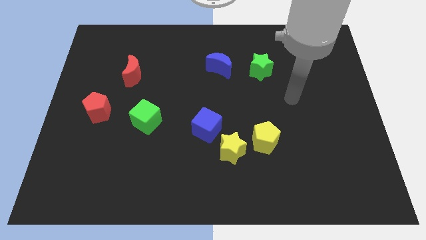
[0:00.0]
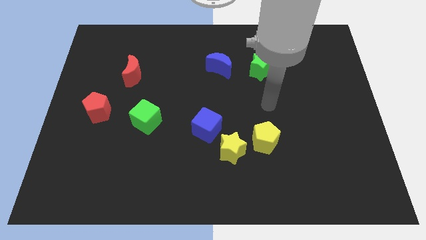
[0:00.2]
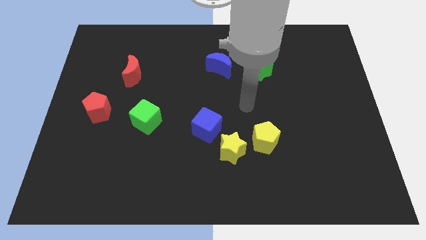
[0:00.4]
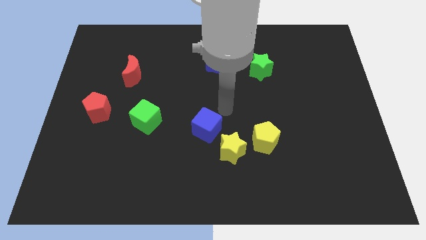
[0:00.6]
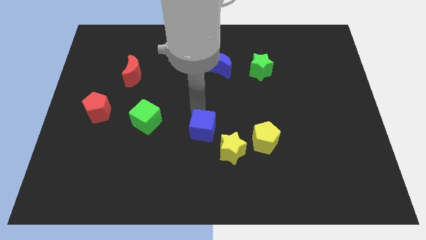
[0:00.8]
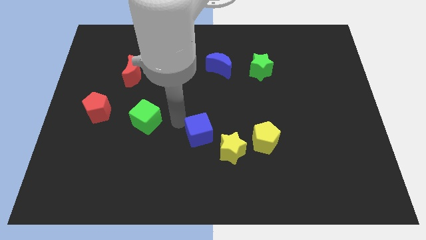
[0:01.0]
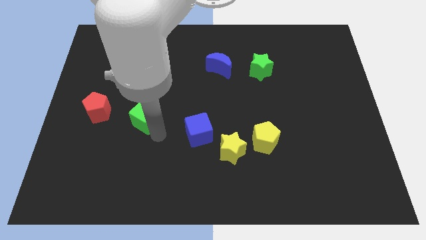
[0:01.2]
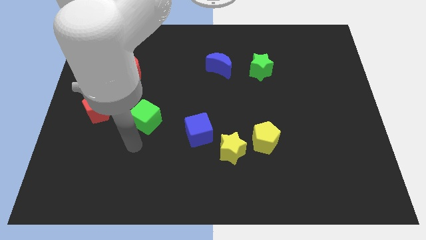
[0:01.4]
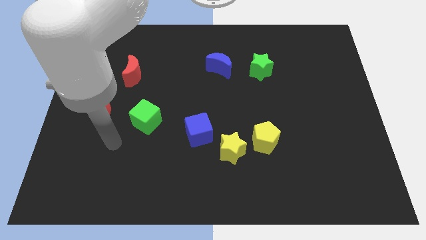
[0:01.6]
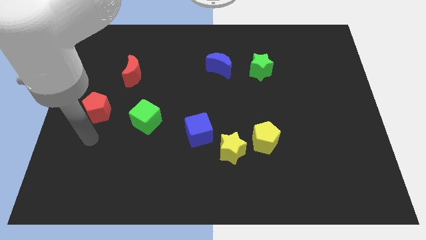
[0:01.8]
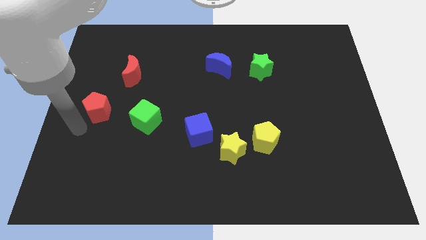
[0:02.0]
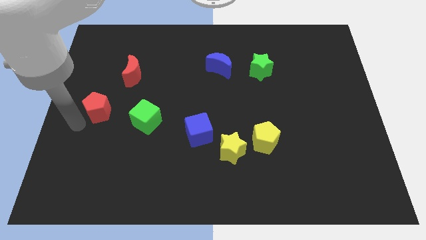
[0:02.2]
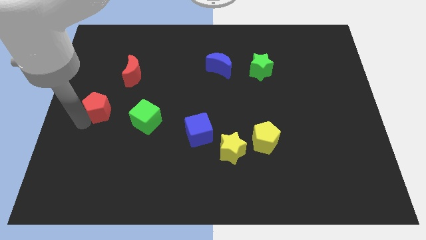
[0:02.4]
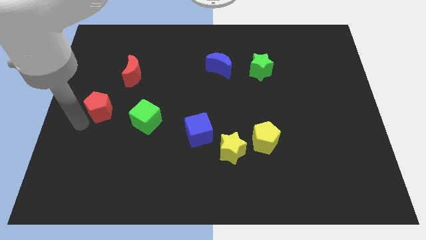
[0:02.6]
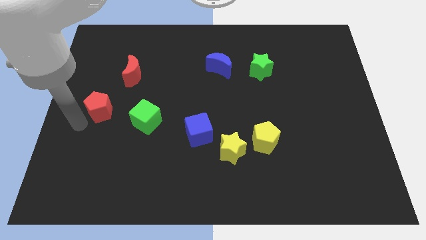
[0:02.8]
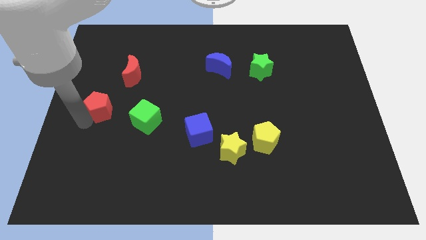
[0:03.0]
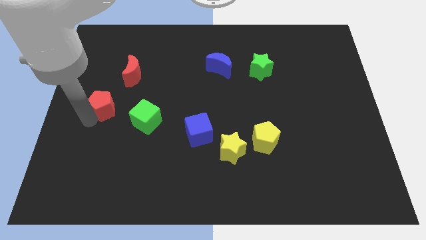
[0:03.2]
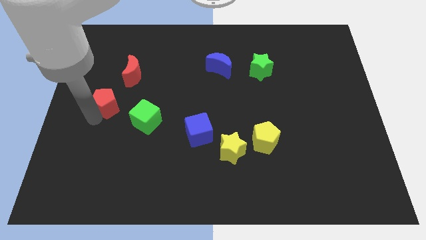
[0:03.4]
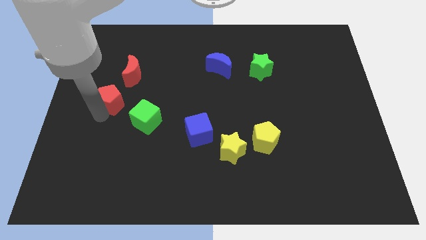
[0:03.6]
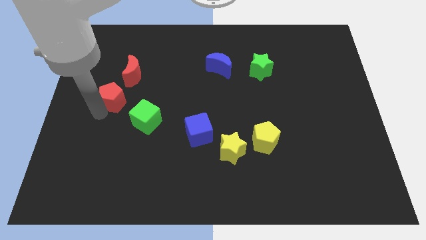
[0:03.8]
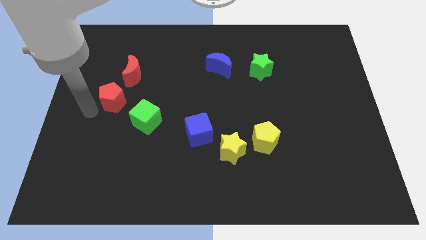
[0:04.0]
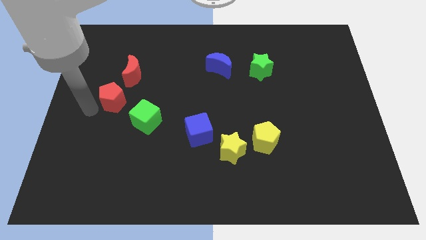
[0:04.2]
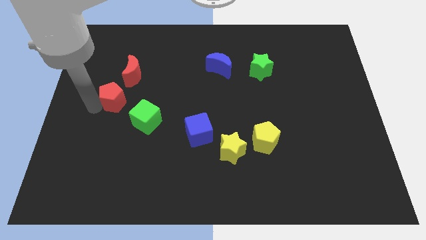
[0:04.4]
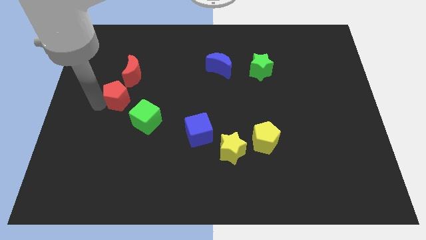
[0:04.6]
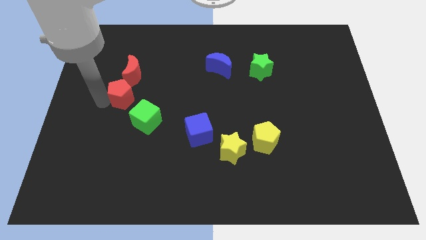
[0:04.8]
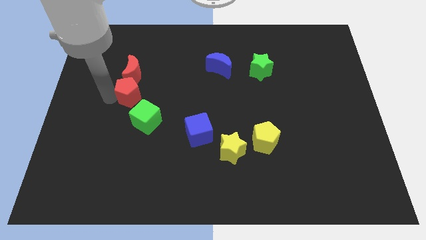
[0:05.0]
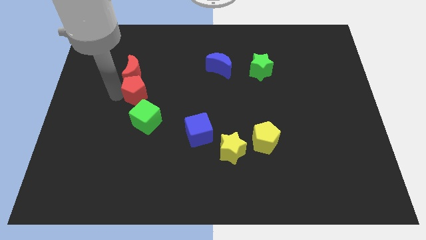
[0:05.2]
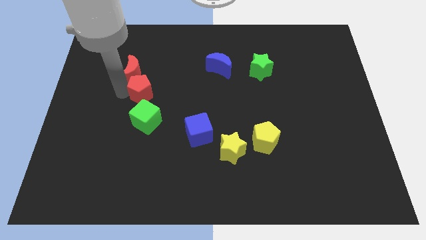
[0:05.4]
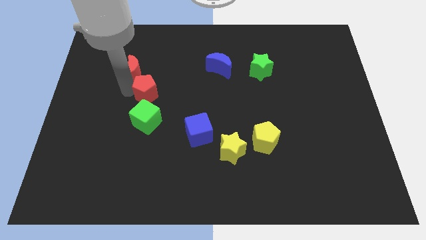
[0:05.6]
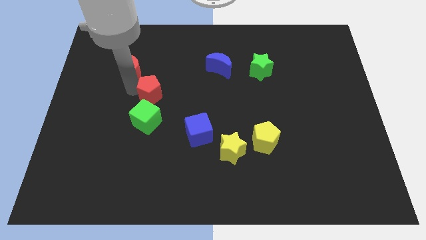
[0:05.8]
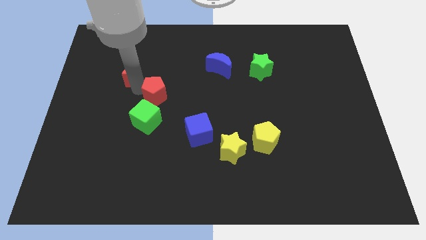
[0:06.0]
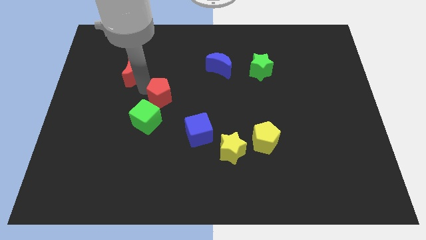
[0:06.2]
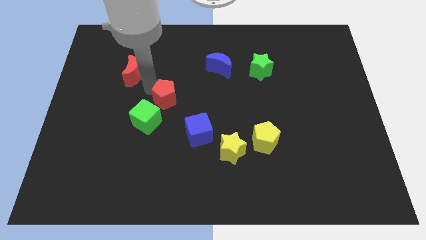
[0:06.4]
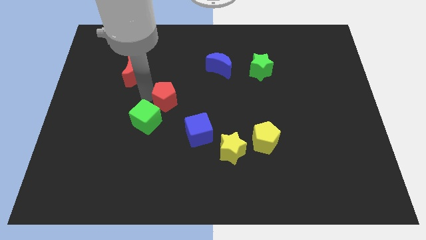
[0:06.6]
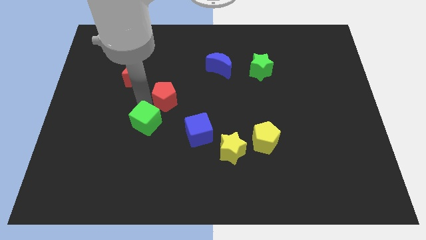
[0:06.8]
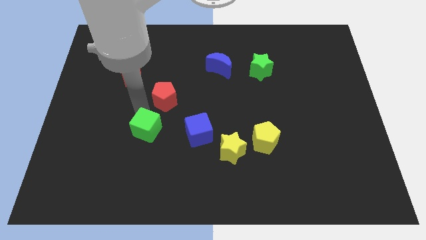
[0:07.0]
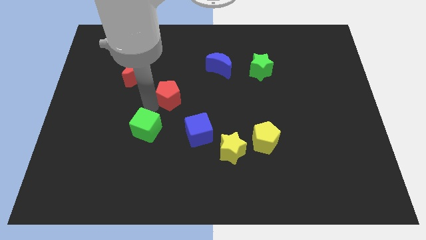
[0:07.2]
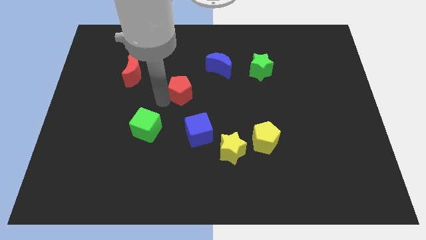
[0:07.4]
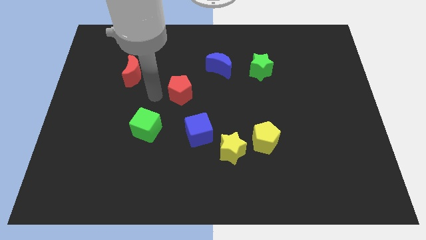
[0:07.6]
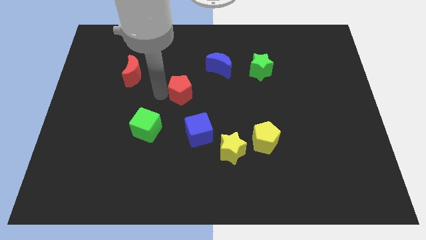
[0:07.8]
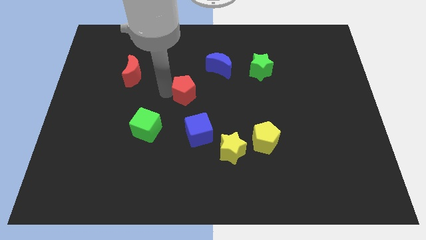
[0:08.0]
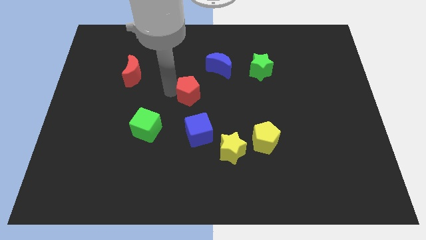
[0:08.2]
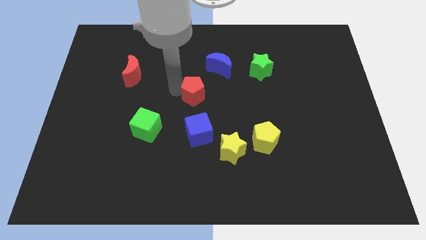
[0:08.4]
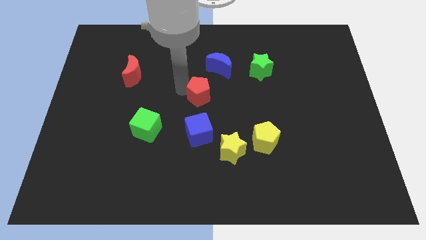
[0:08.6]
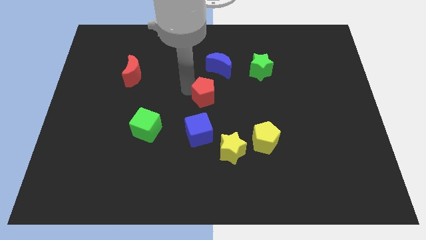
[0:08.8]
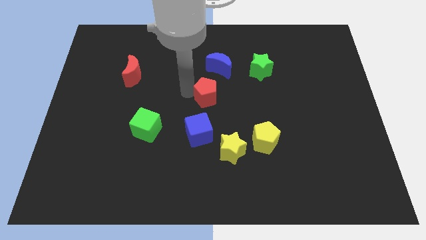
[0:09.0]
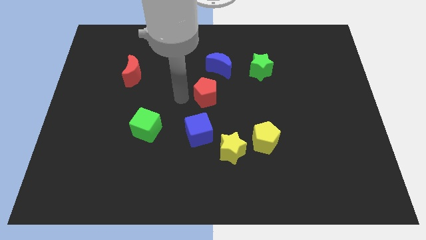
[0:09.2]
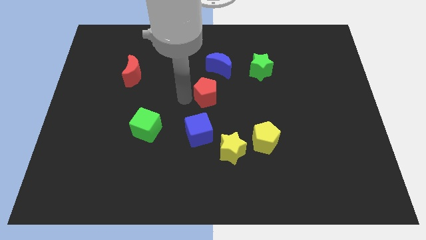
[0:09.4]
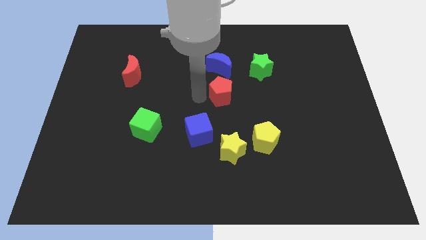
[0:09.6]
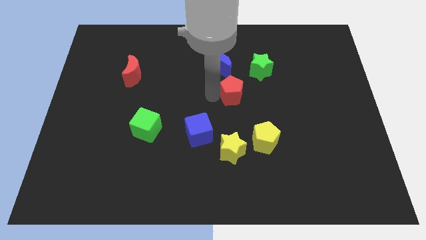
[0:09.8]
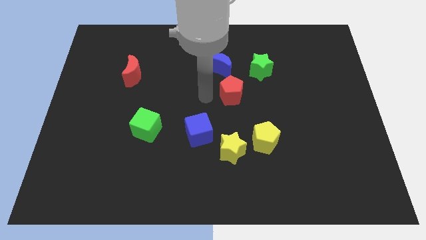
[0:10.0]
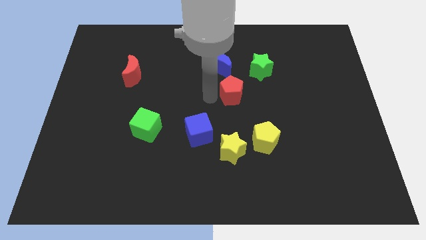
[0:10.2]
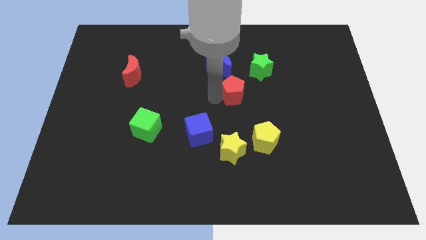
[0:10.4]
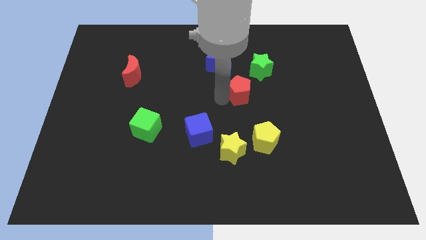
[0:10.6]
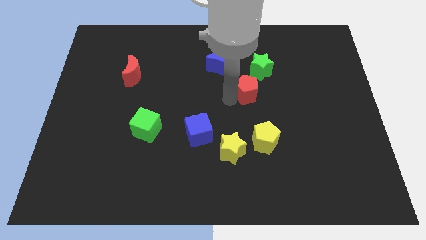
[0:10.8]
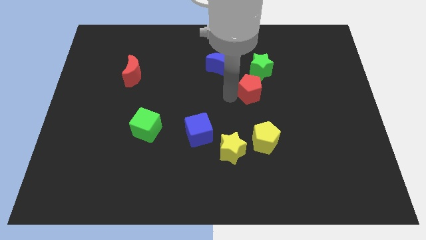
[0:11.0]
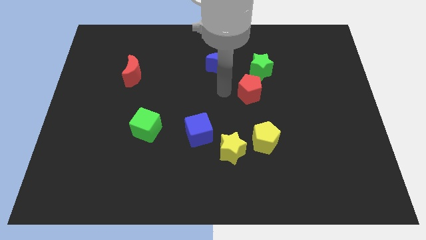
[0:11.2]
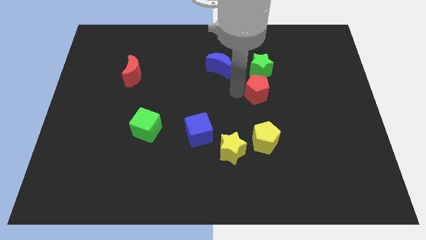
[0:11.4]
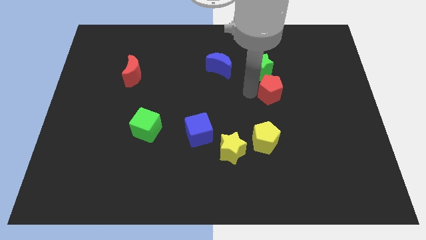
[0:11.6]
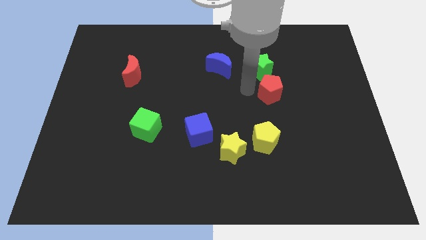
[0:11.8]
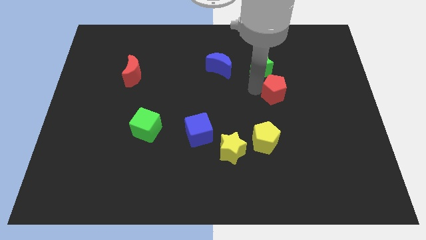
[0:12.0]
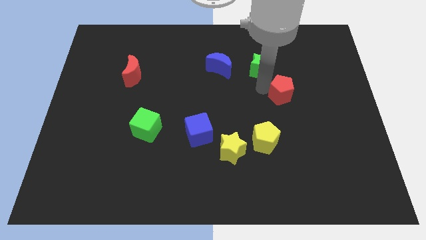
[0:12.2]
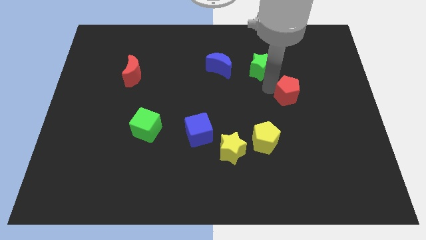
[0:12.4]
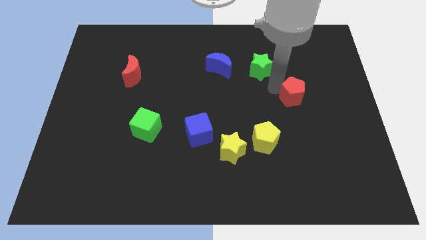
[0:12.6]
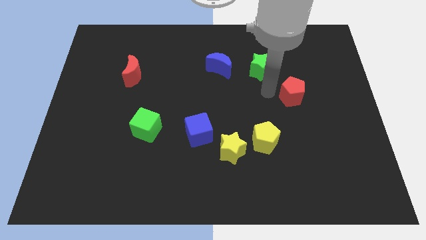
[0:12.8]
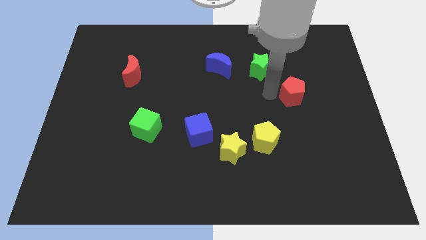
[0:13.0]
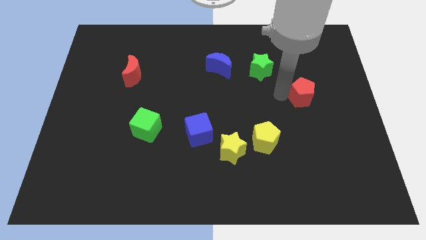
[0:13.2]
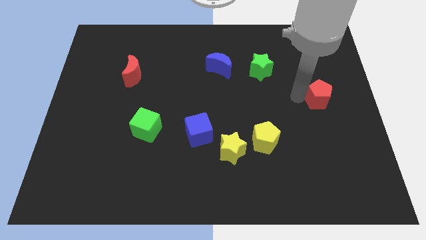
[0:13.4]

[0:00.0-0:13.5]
put the red pentagon to the right side

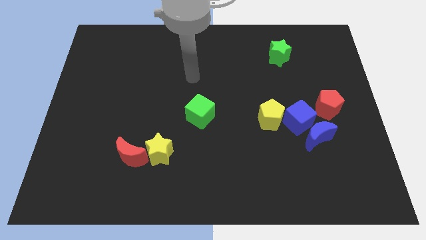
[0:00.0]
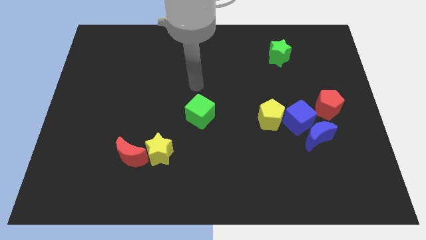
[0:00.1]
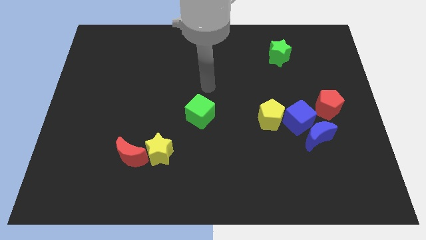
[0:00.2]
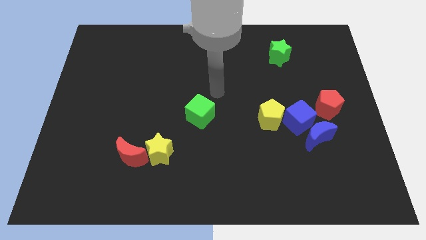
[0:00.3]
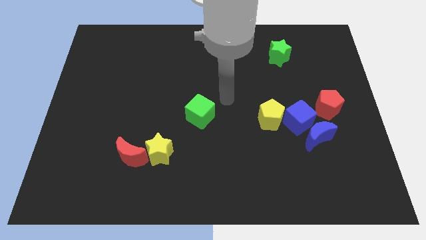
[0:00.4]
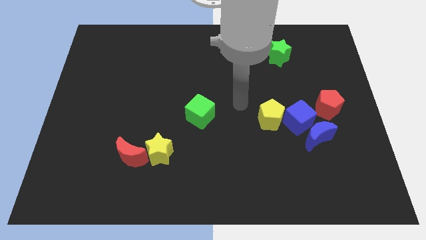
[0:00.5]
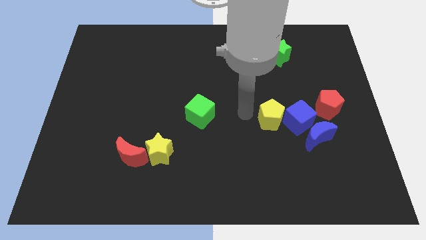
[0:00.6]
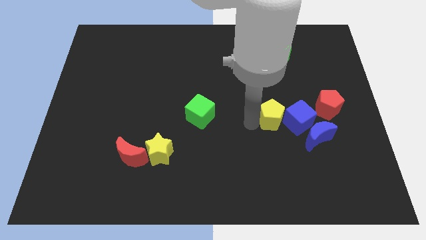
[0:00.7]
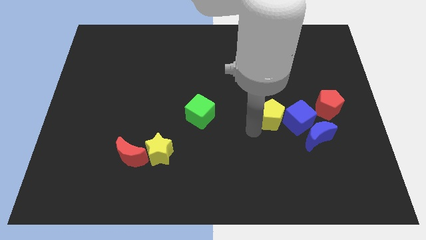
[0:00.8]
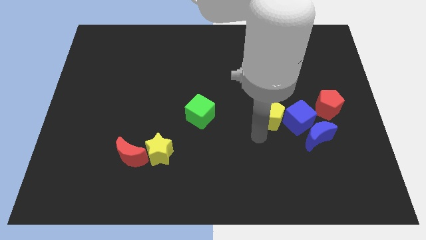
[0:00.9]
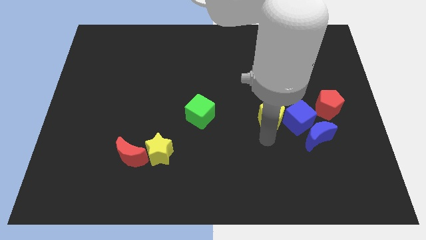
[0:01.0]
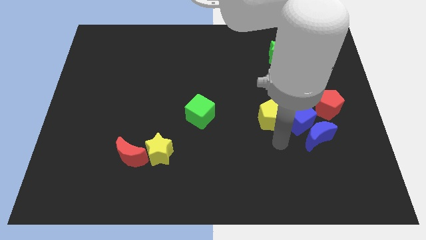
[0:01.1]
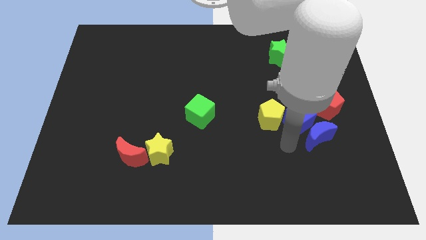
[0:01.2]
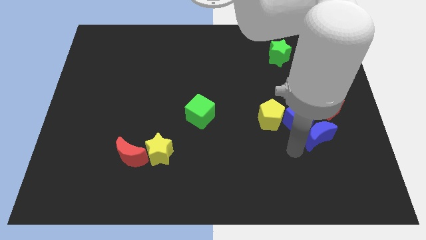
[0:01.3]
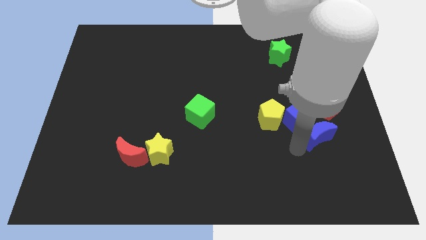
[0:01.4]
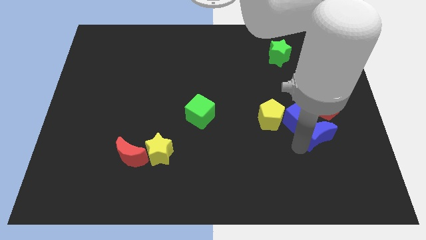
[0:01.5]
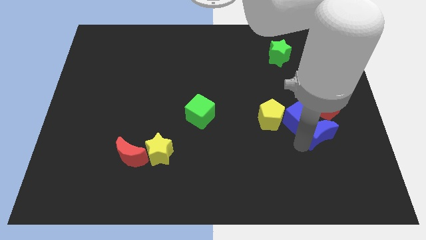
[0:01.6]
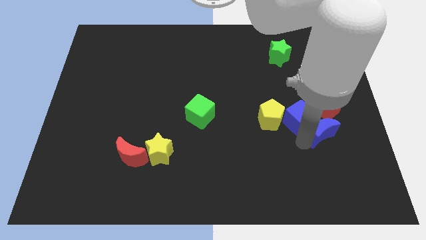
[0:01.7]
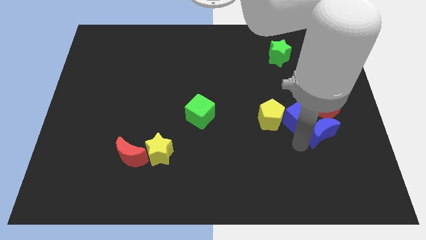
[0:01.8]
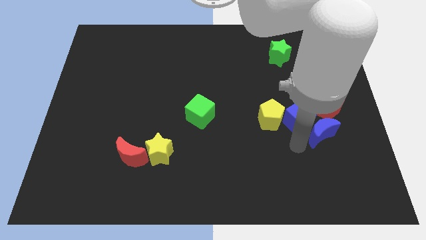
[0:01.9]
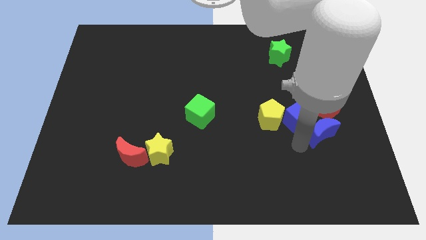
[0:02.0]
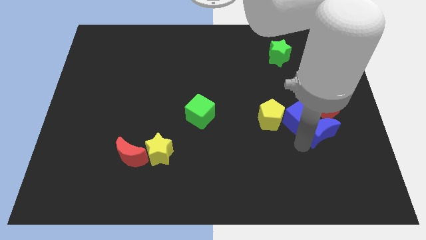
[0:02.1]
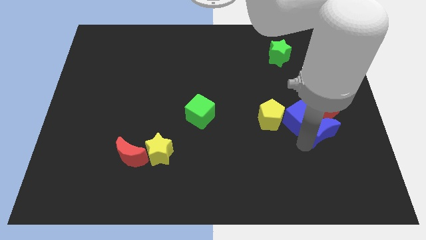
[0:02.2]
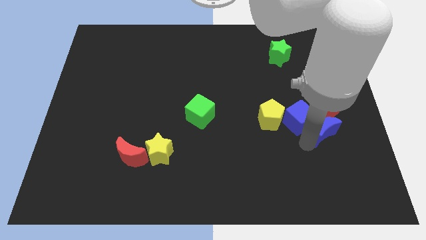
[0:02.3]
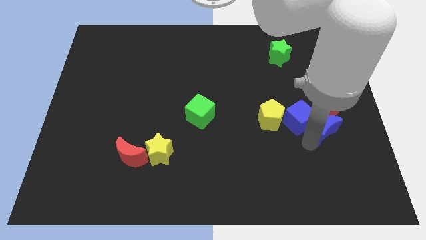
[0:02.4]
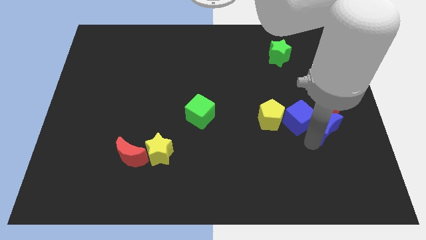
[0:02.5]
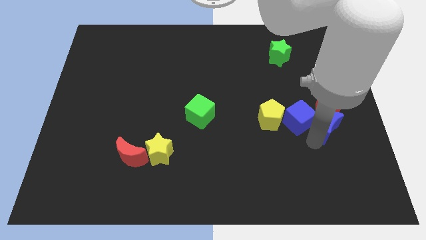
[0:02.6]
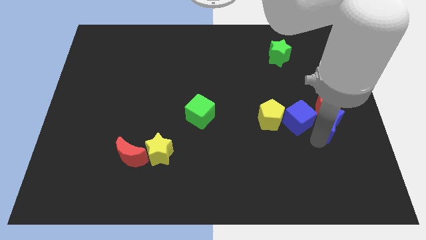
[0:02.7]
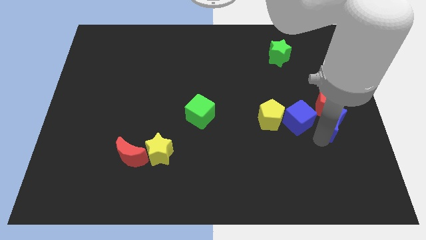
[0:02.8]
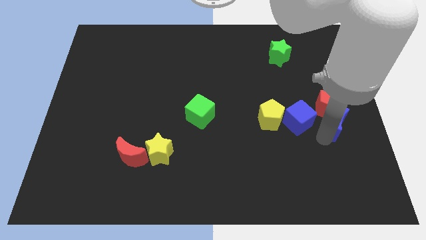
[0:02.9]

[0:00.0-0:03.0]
slide the blue moon to the right side
